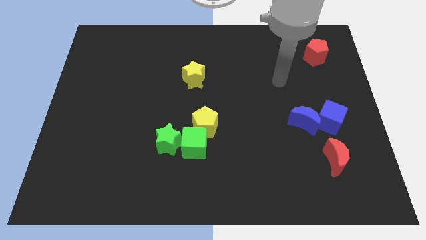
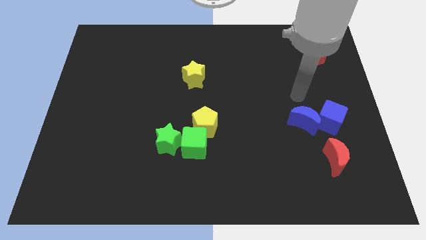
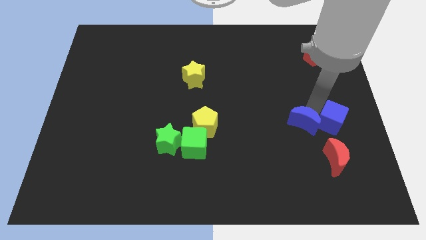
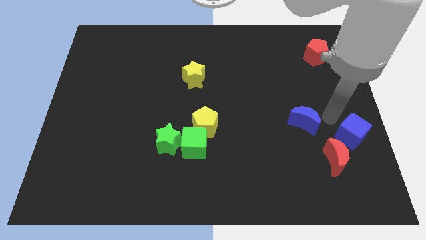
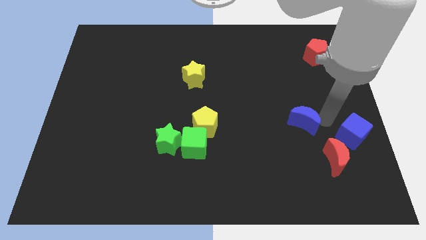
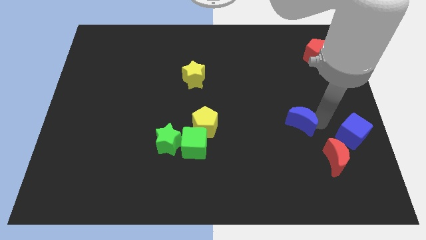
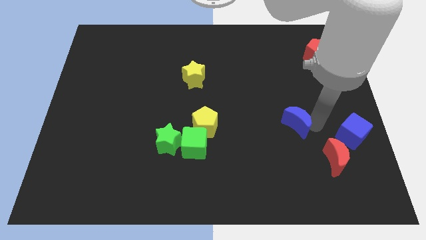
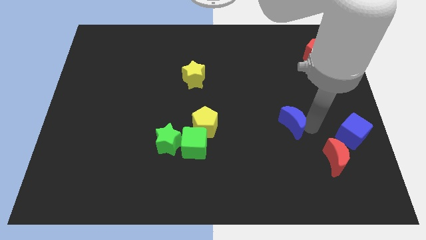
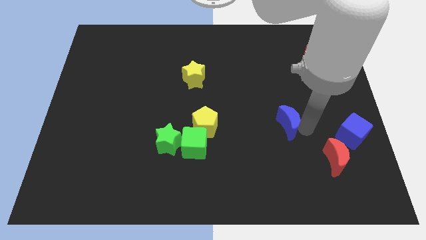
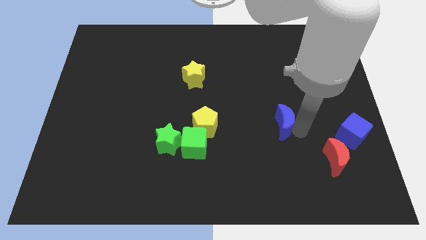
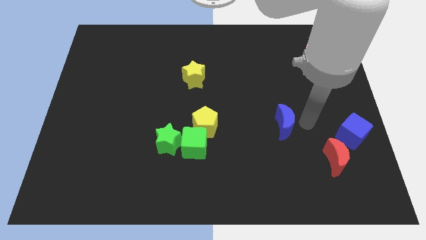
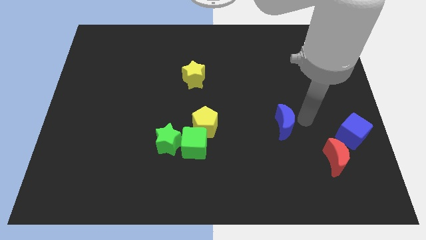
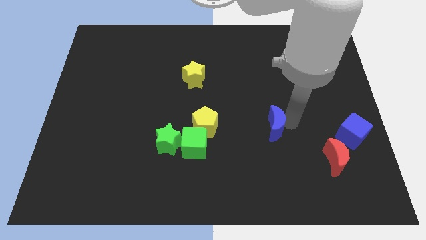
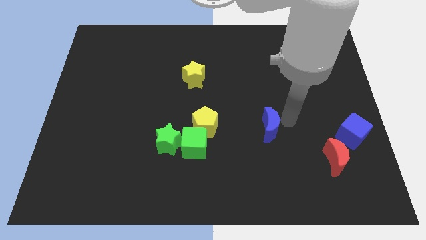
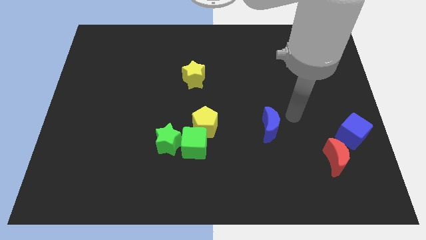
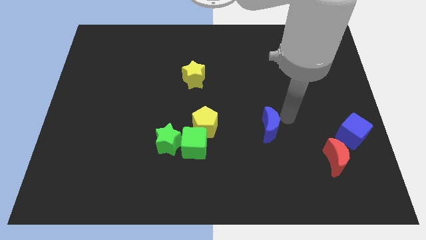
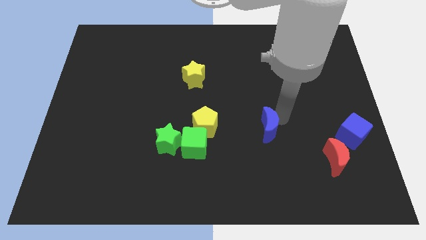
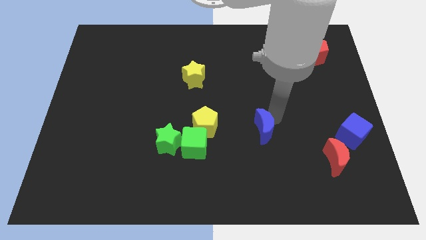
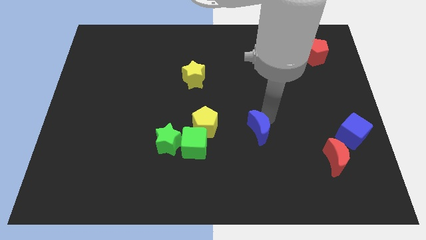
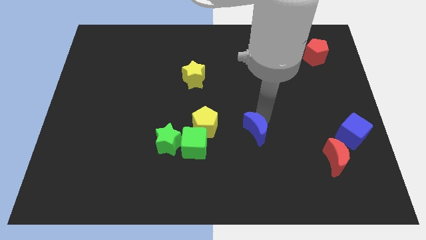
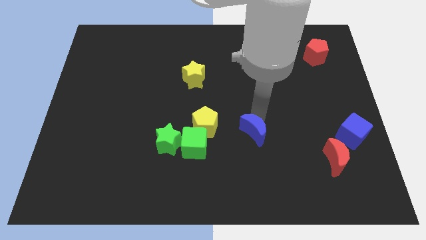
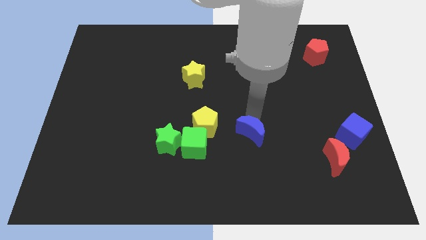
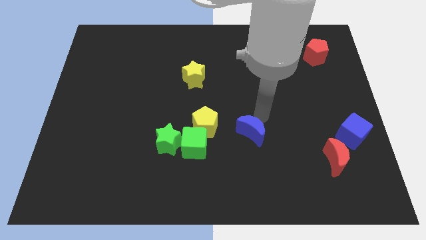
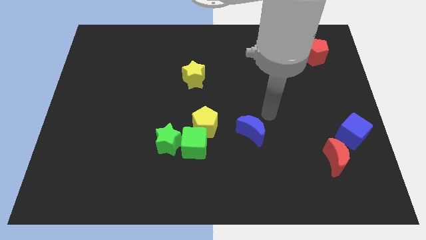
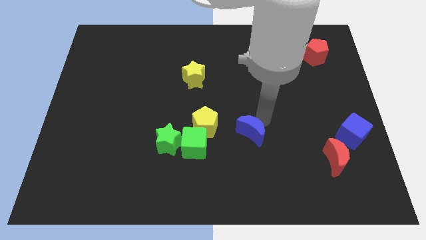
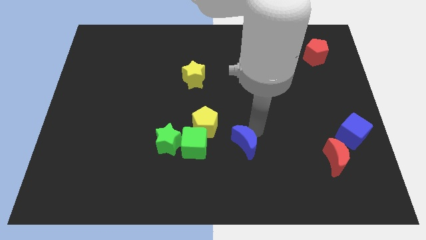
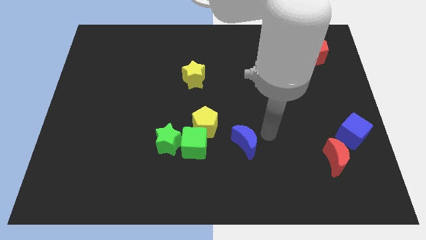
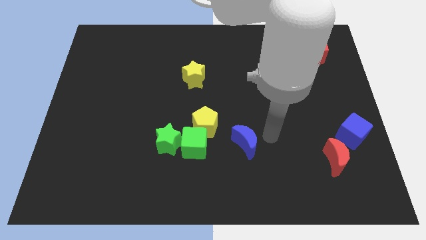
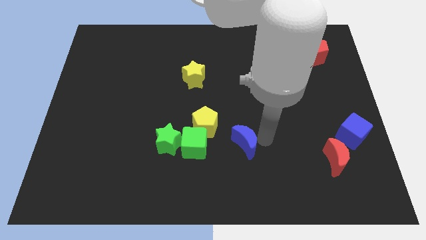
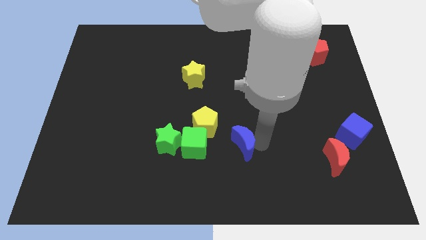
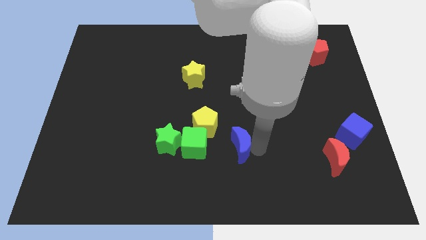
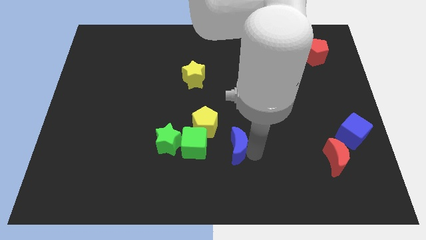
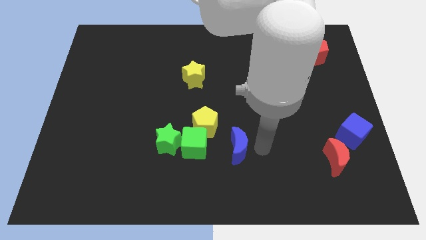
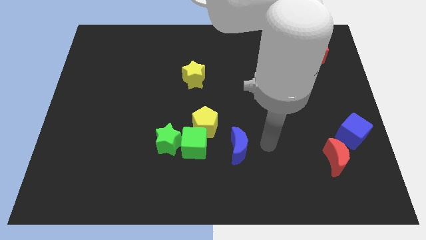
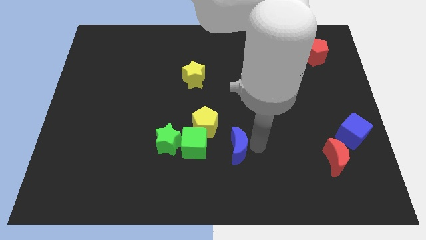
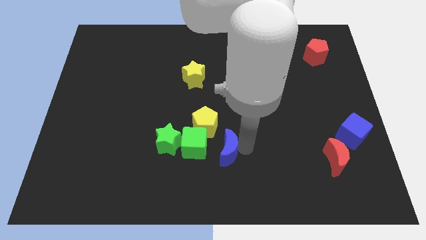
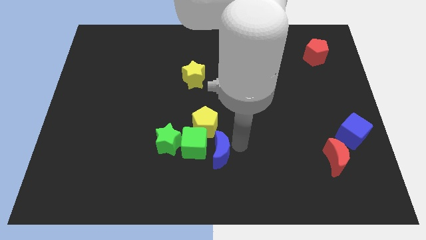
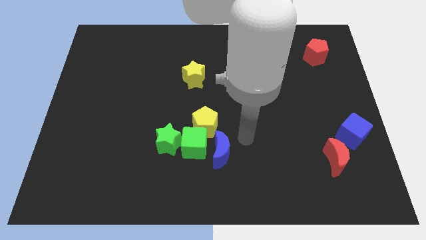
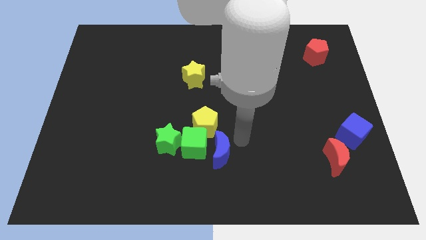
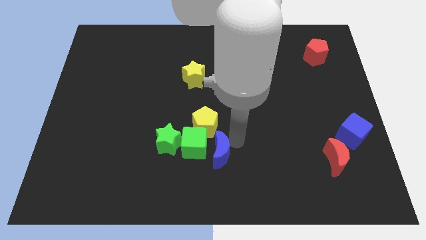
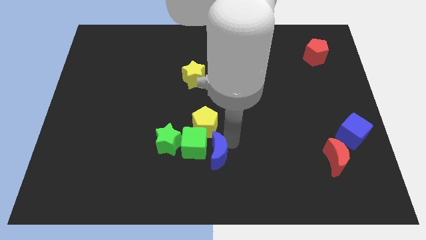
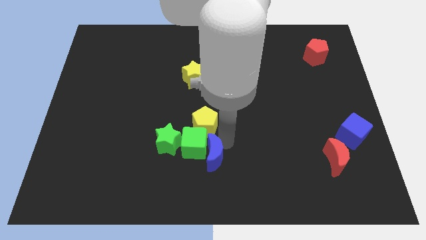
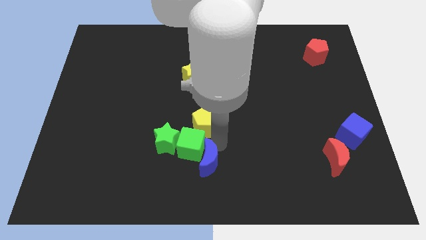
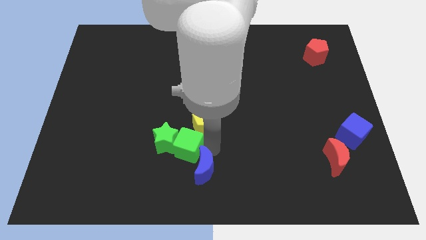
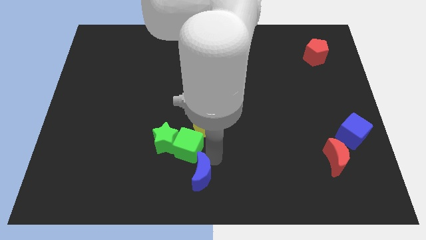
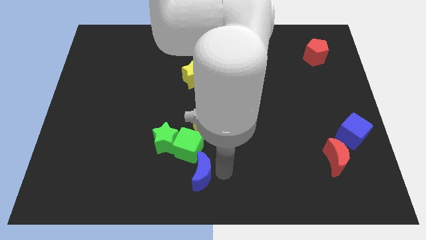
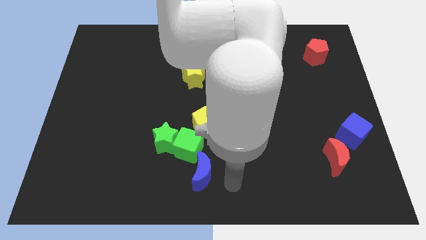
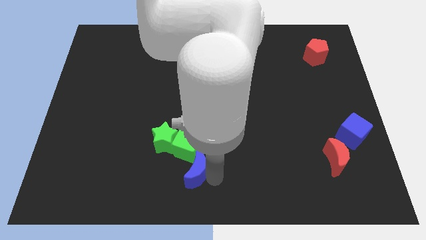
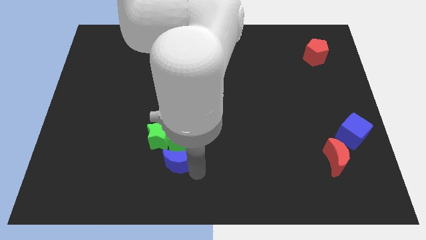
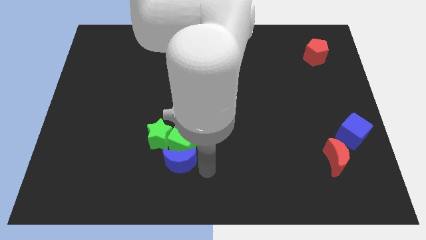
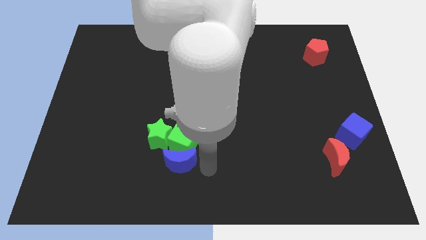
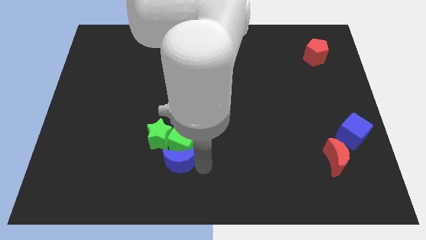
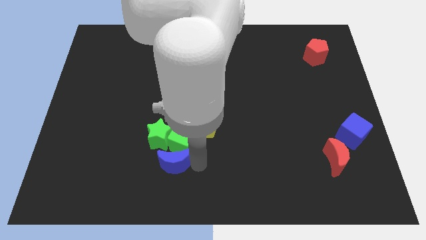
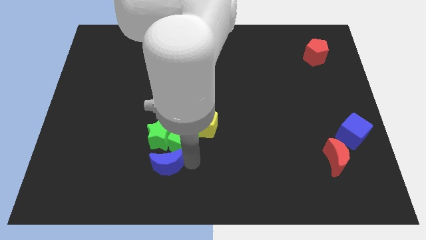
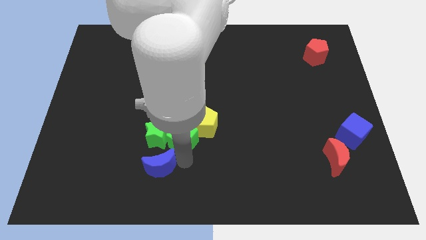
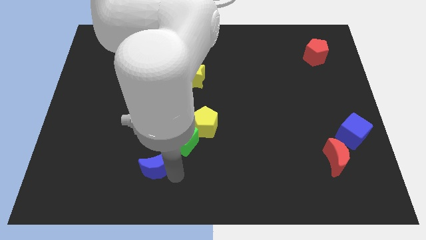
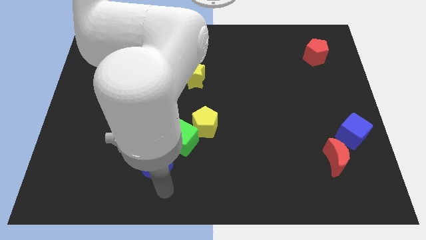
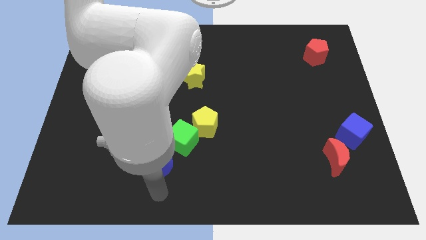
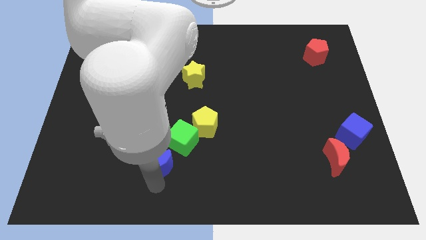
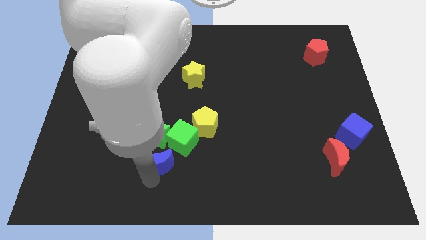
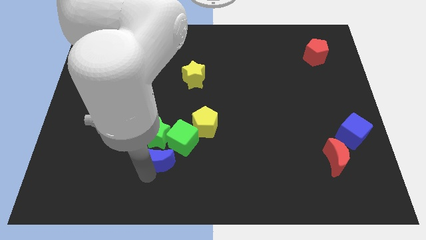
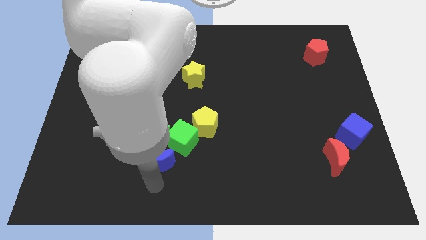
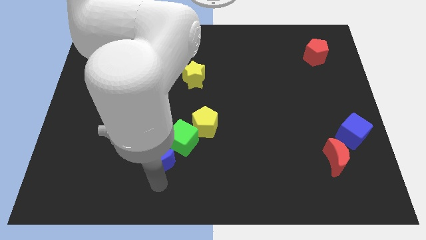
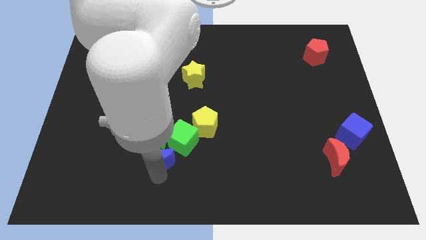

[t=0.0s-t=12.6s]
slide the blue moon close to the green star

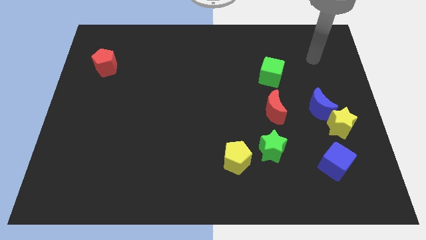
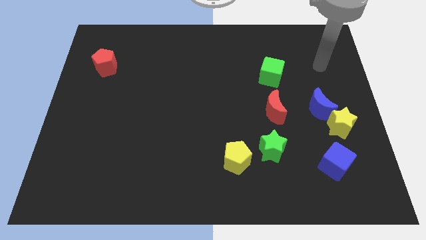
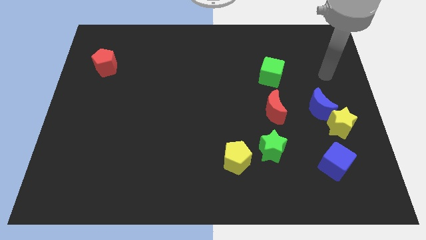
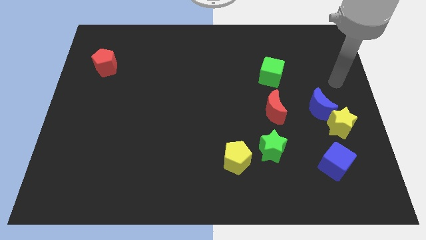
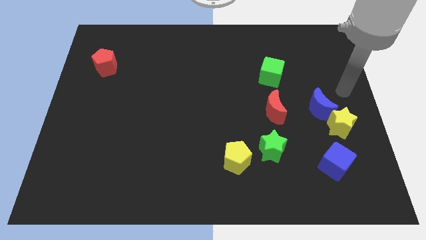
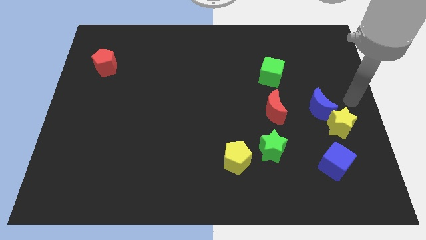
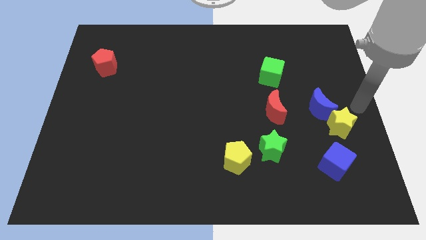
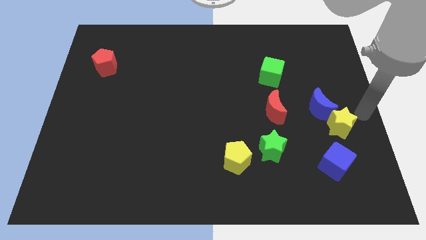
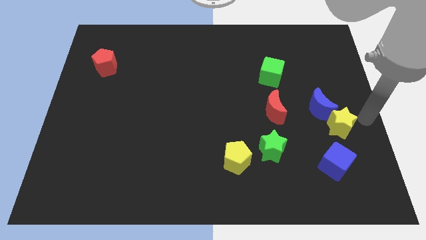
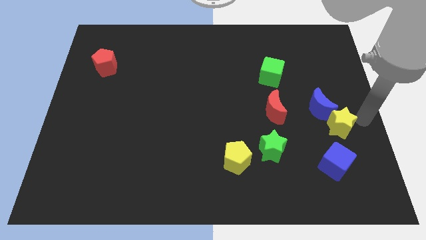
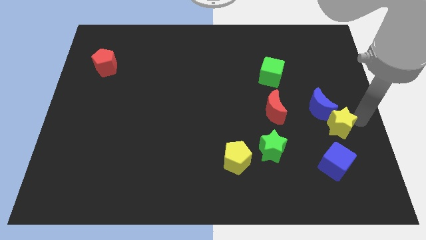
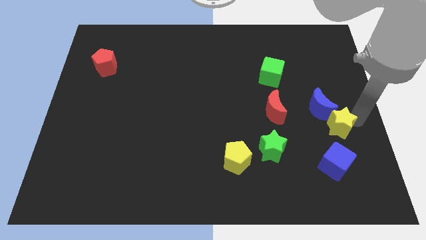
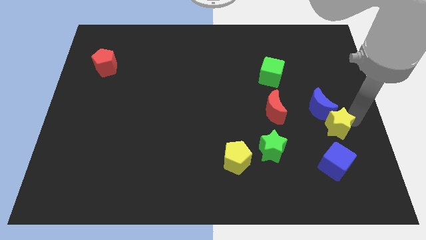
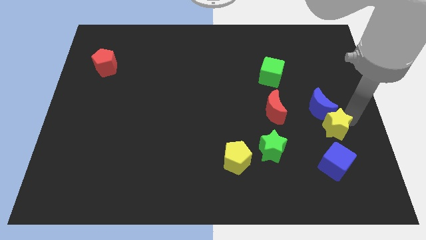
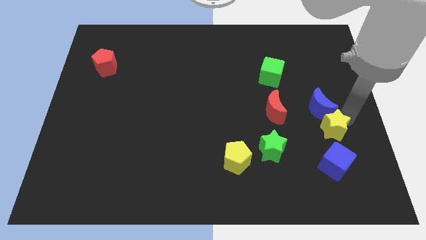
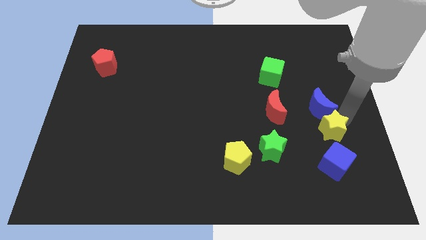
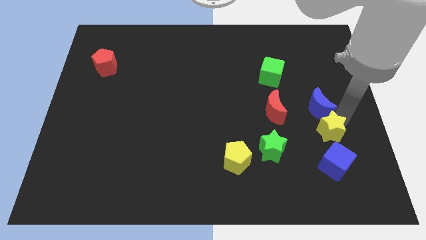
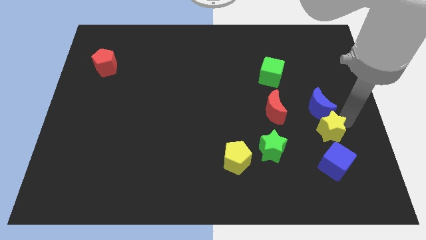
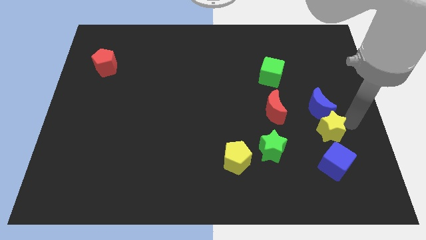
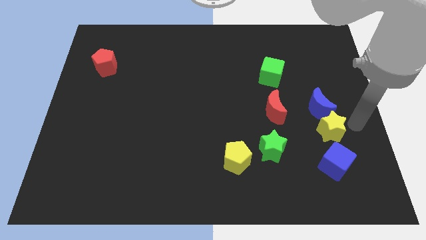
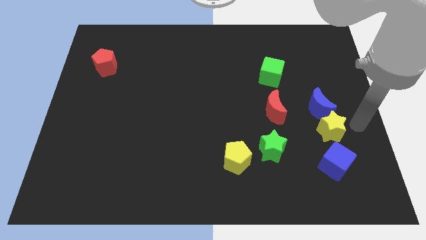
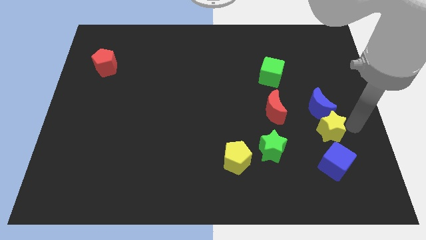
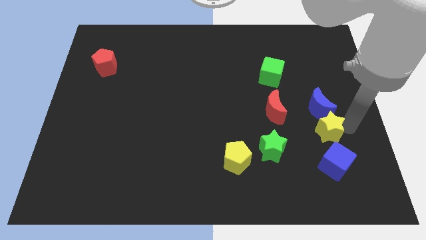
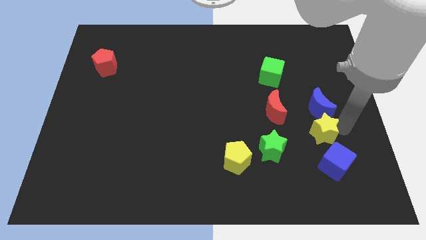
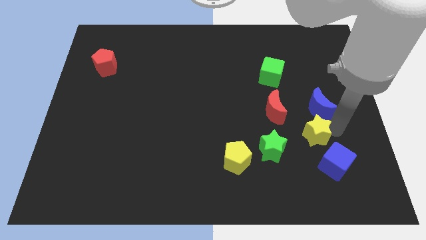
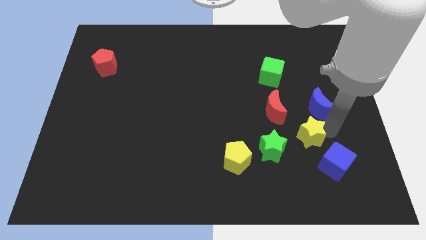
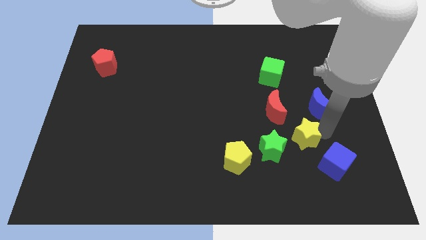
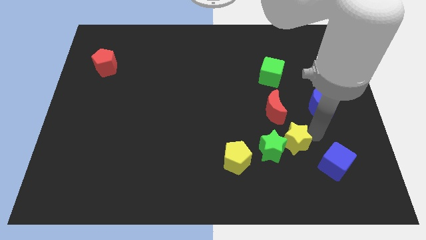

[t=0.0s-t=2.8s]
slide the yellow star next to the green star
